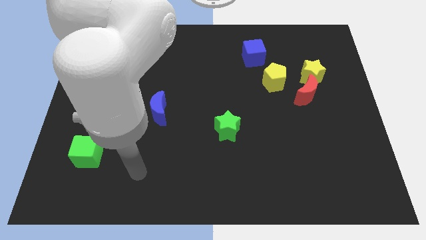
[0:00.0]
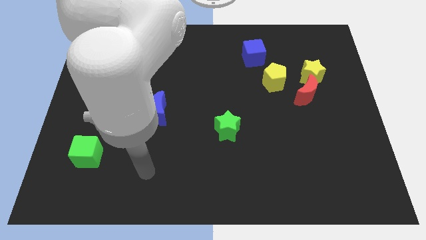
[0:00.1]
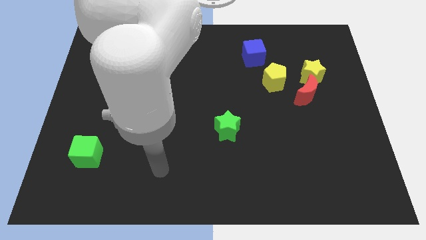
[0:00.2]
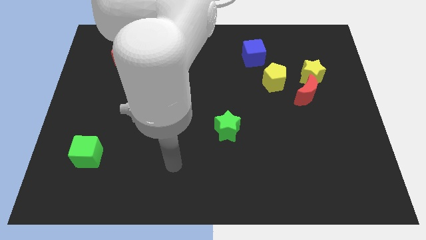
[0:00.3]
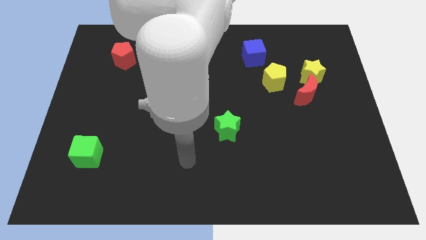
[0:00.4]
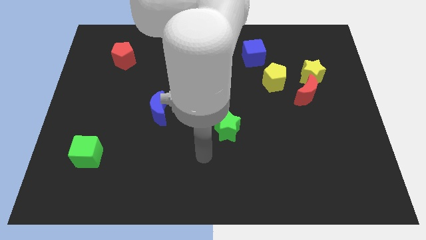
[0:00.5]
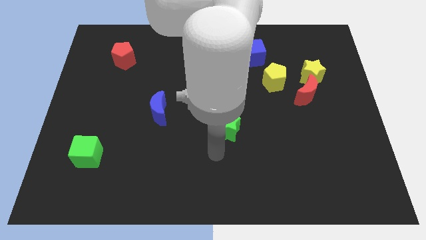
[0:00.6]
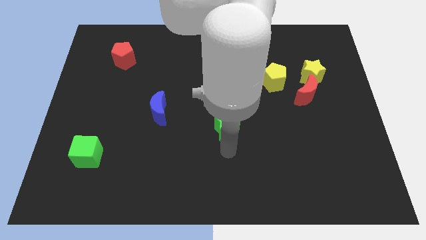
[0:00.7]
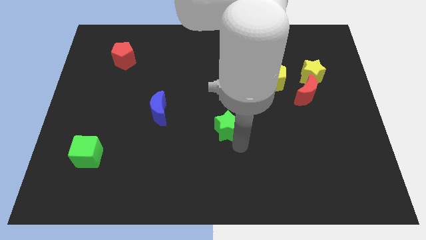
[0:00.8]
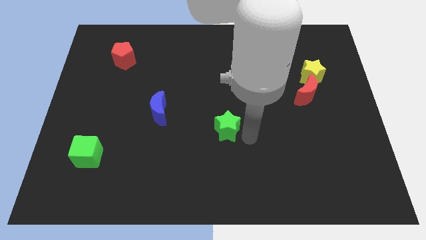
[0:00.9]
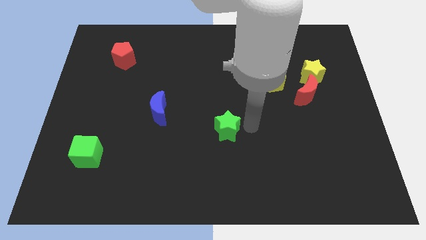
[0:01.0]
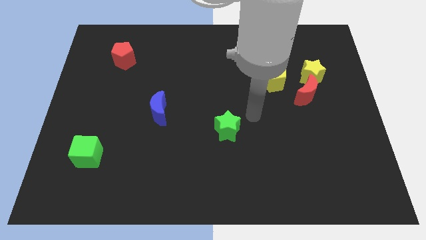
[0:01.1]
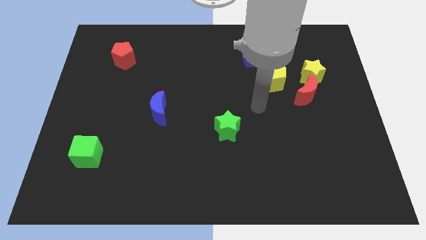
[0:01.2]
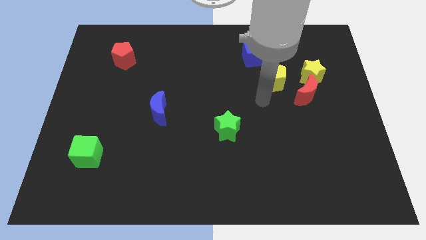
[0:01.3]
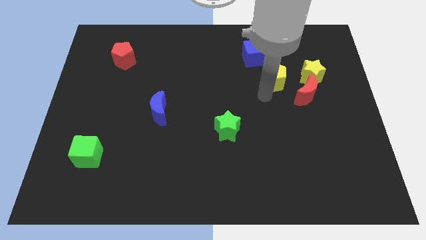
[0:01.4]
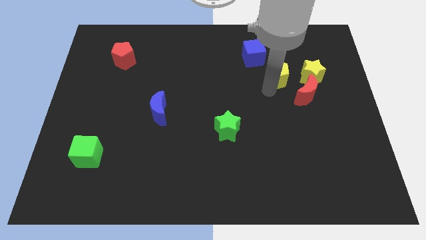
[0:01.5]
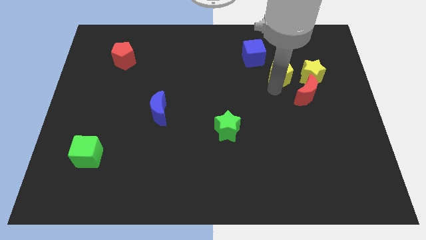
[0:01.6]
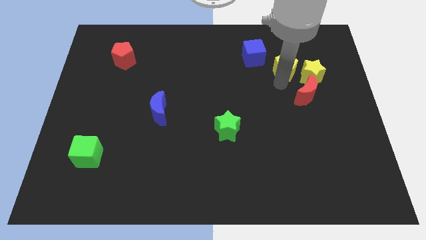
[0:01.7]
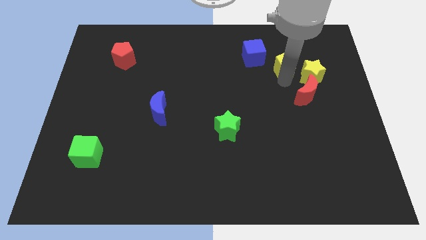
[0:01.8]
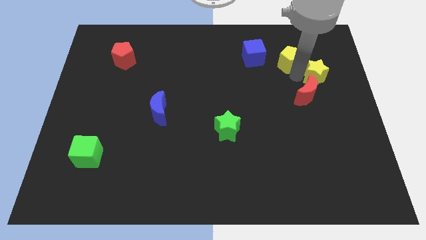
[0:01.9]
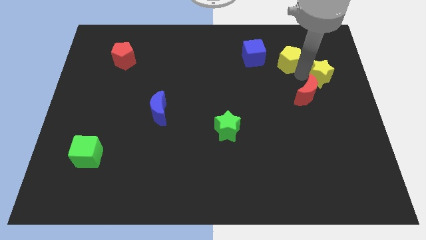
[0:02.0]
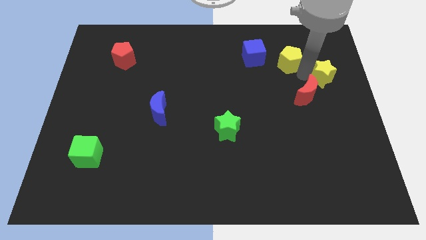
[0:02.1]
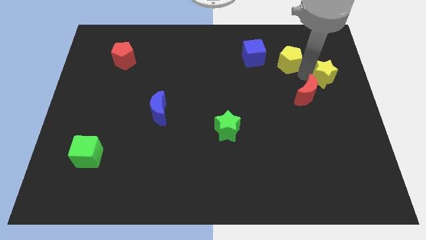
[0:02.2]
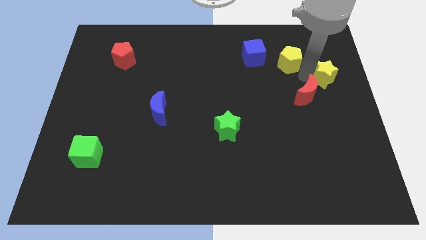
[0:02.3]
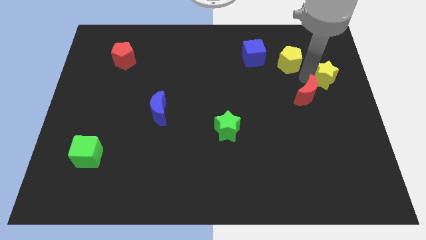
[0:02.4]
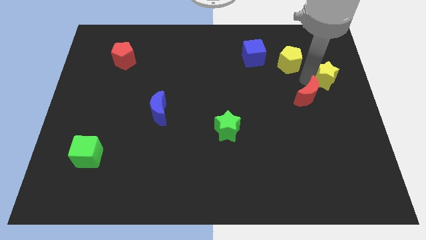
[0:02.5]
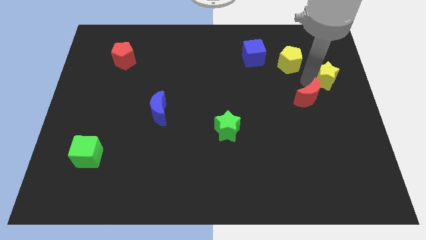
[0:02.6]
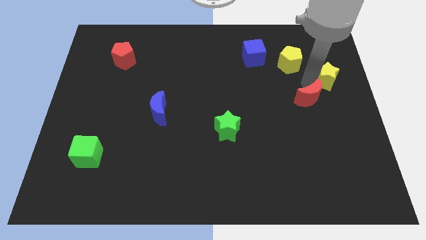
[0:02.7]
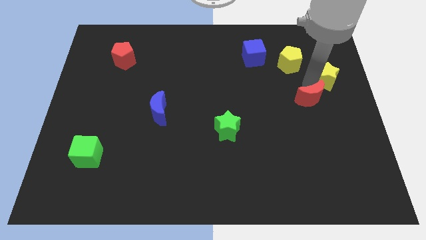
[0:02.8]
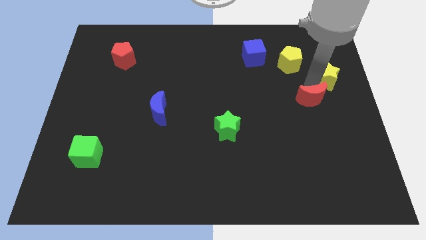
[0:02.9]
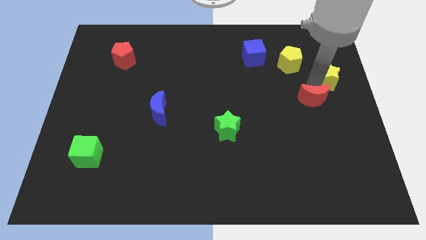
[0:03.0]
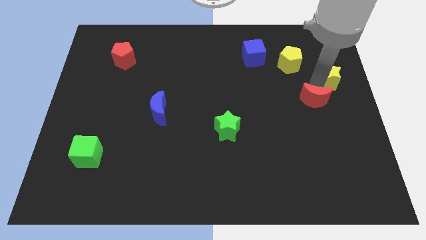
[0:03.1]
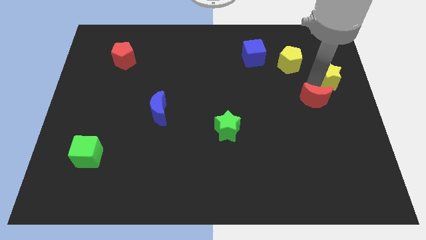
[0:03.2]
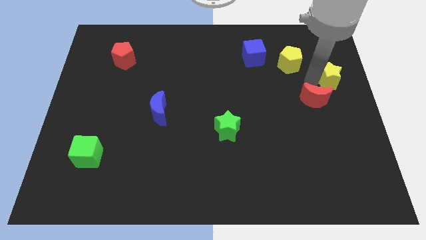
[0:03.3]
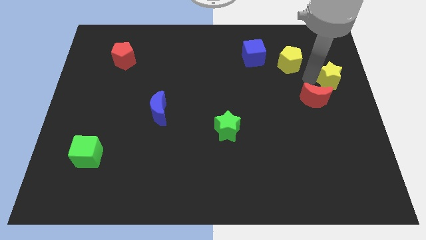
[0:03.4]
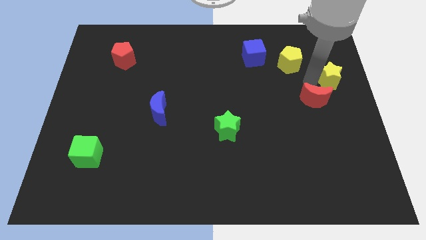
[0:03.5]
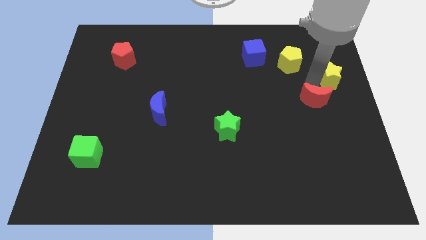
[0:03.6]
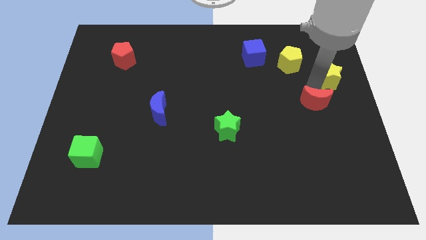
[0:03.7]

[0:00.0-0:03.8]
separate the red moon from the yellow star and yellow pentagon

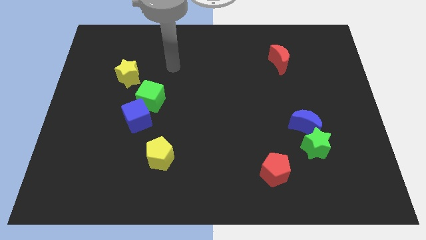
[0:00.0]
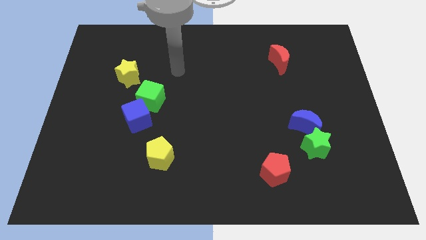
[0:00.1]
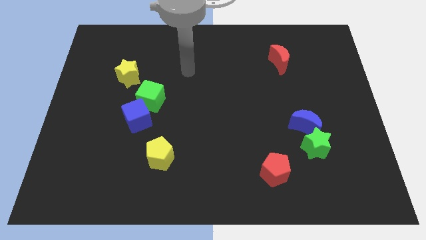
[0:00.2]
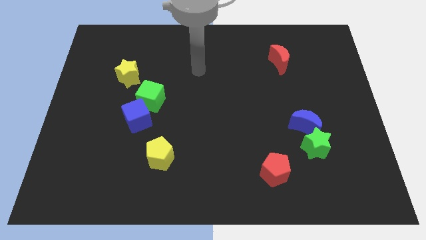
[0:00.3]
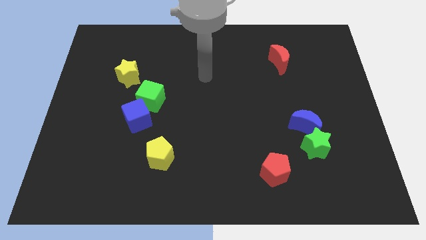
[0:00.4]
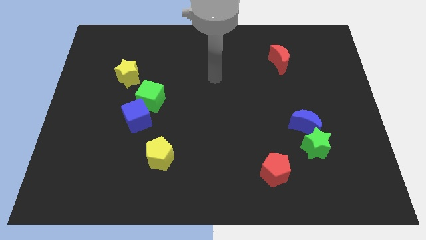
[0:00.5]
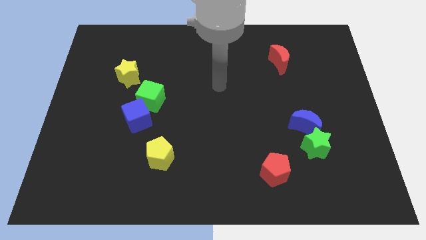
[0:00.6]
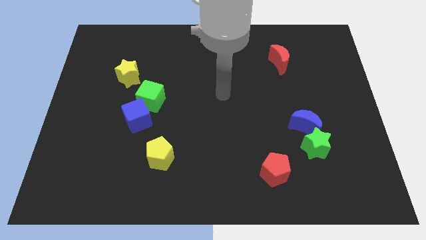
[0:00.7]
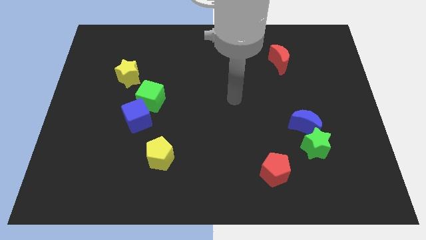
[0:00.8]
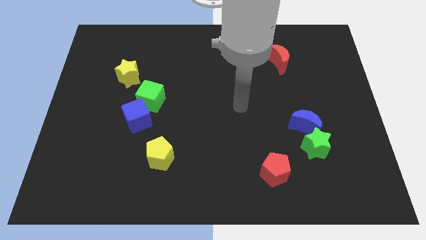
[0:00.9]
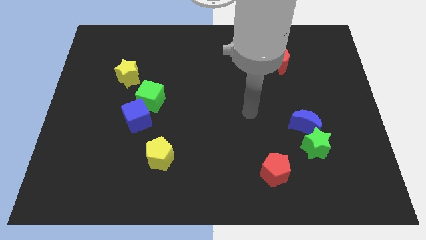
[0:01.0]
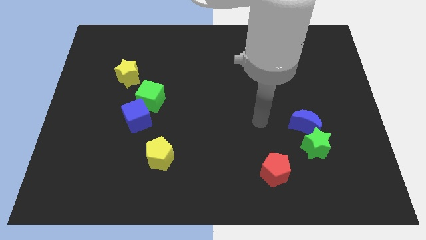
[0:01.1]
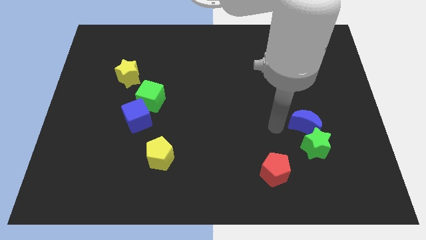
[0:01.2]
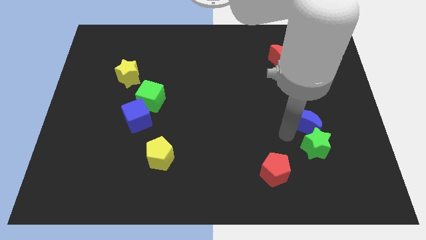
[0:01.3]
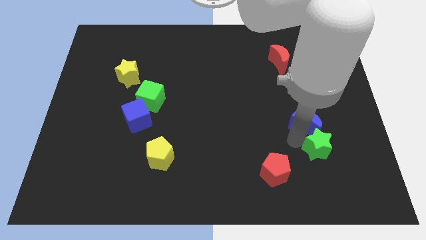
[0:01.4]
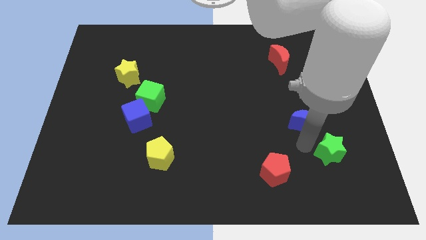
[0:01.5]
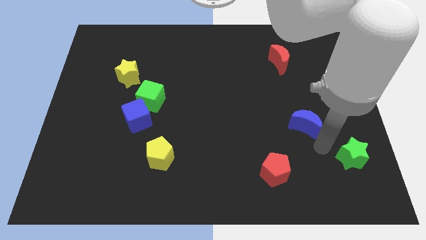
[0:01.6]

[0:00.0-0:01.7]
separate the blue moon from the green star

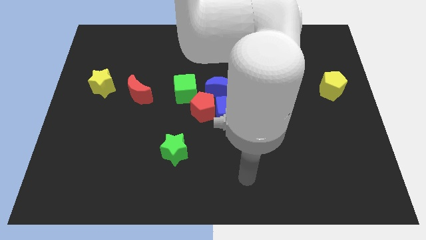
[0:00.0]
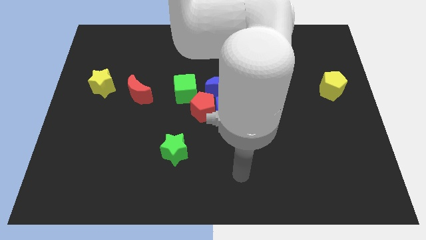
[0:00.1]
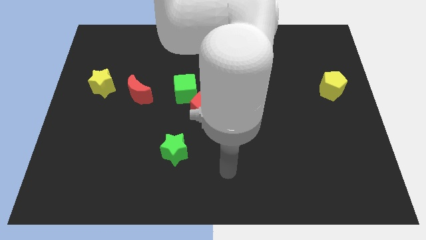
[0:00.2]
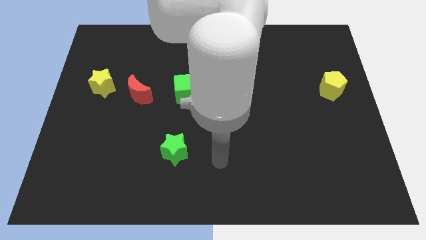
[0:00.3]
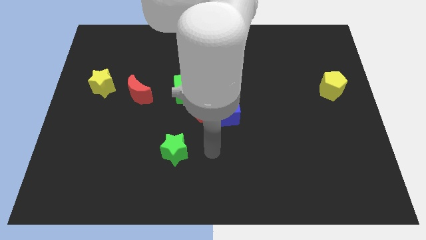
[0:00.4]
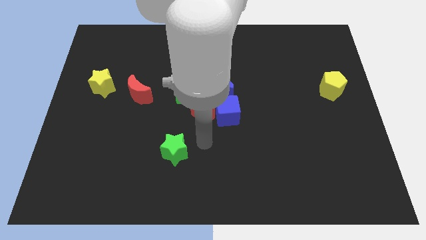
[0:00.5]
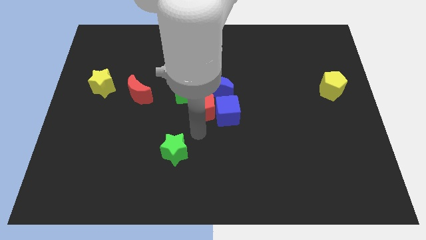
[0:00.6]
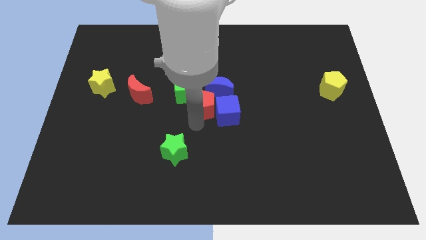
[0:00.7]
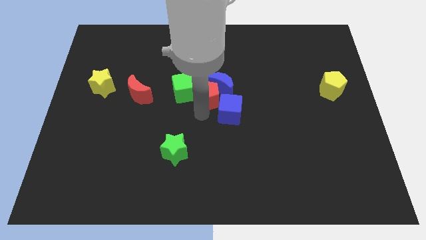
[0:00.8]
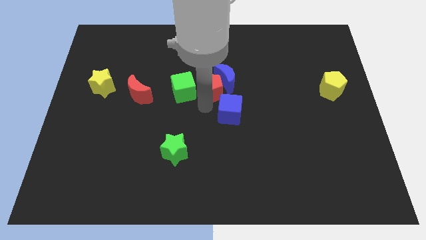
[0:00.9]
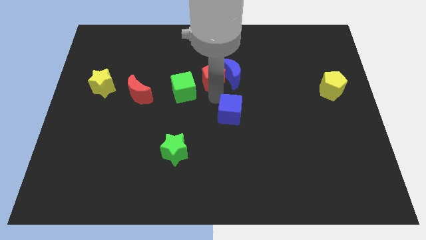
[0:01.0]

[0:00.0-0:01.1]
move the blue cube away from the red pentagon and blue moon

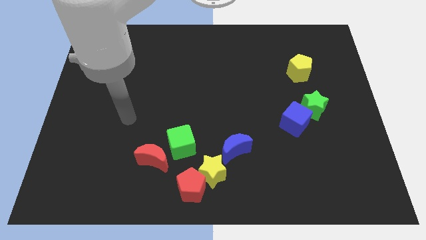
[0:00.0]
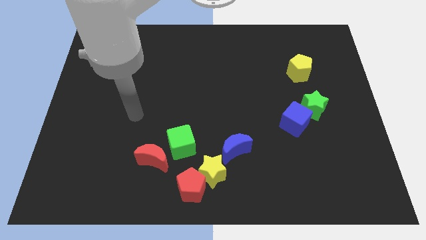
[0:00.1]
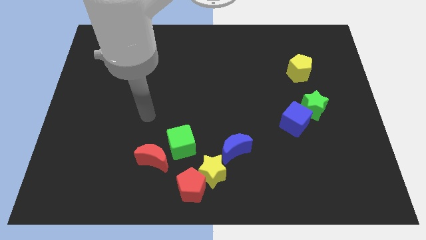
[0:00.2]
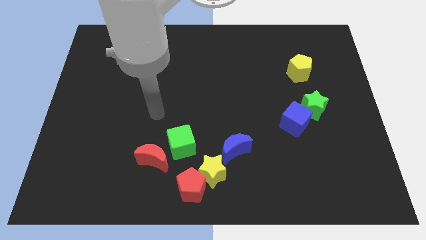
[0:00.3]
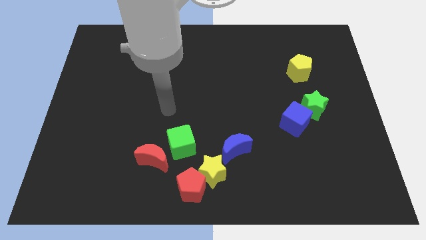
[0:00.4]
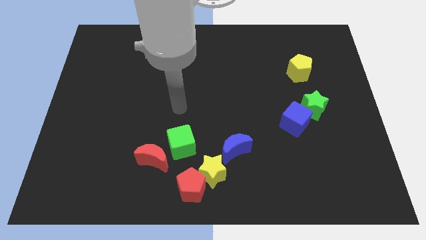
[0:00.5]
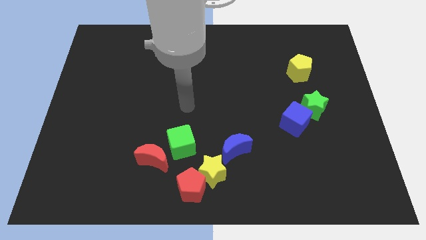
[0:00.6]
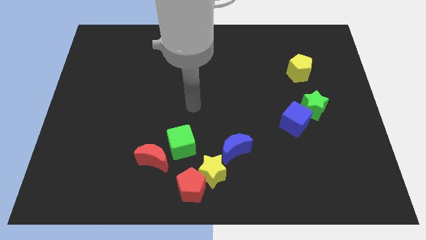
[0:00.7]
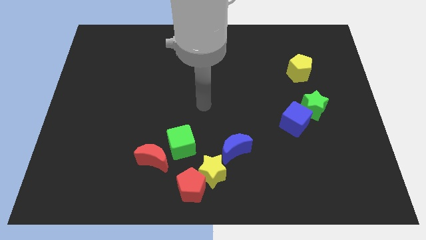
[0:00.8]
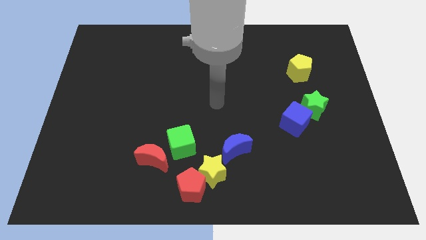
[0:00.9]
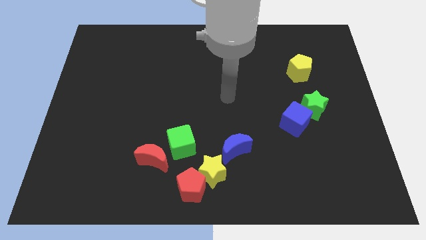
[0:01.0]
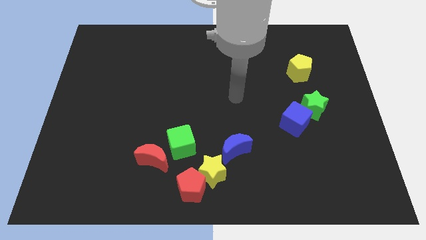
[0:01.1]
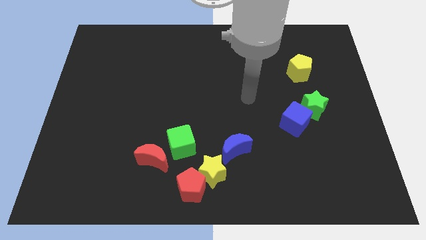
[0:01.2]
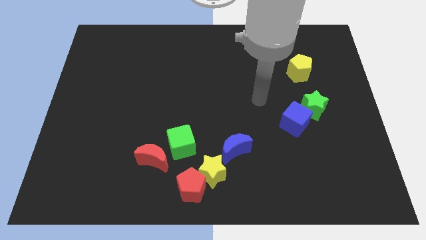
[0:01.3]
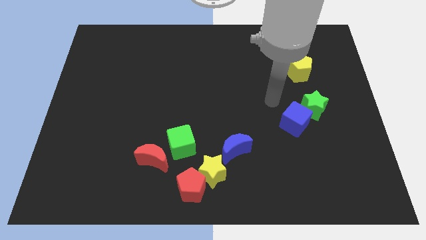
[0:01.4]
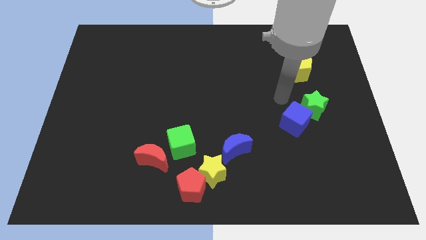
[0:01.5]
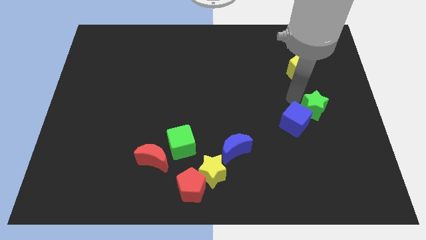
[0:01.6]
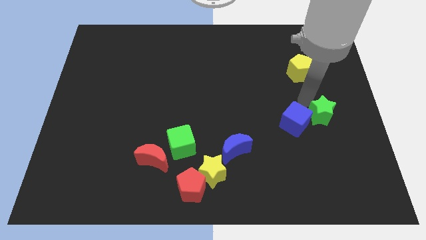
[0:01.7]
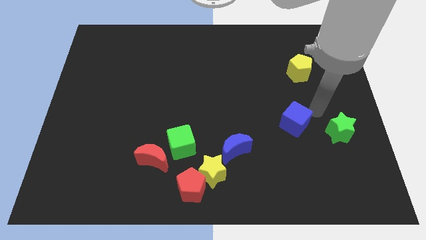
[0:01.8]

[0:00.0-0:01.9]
pull the blue cube apart from the green star

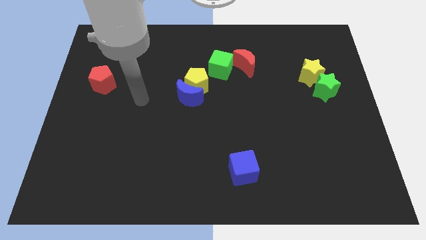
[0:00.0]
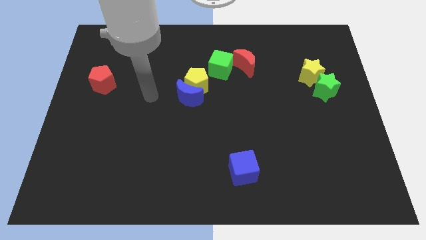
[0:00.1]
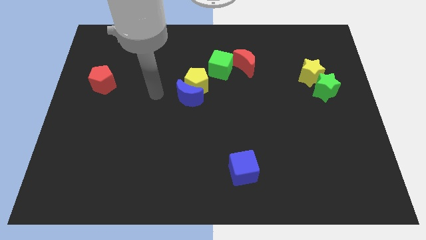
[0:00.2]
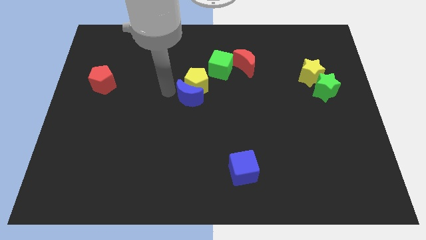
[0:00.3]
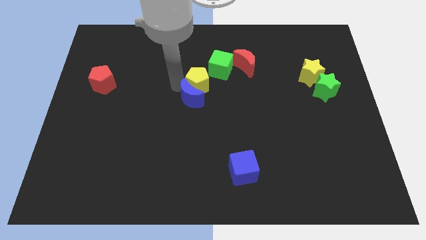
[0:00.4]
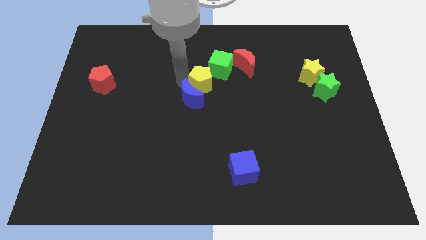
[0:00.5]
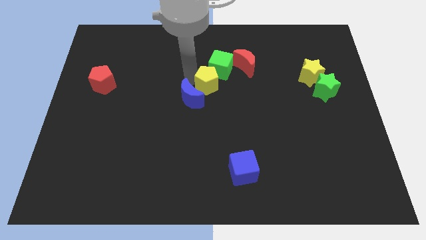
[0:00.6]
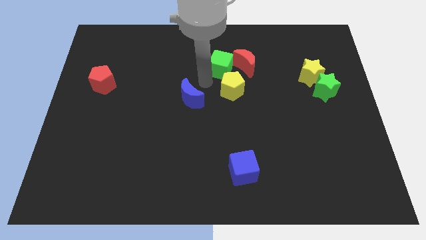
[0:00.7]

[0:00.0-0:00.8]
separate the blue moon from the yellow pentagon
